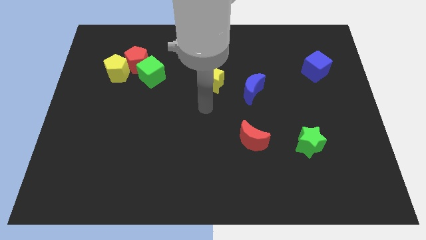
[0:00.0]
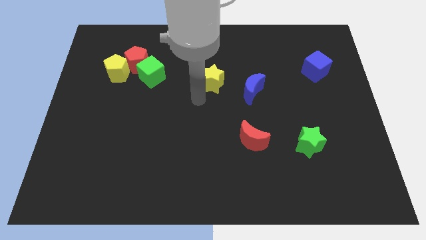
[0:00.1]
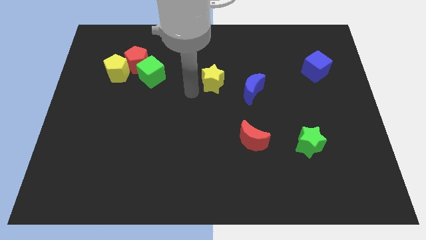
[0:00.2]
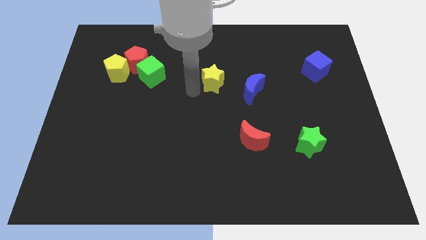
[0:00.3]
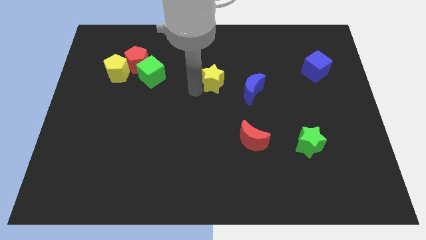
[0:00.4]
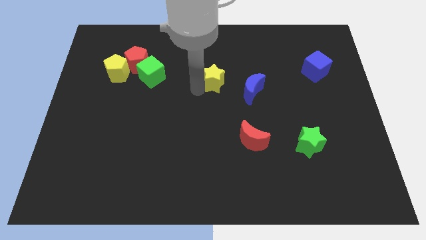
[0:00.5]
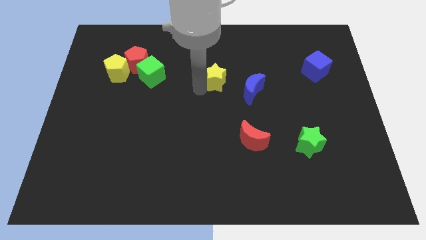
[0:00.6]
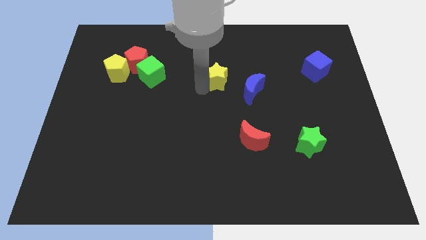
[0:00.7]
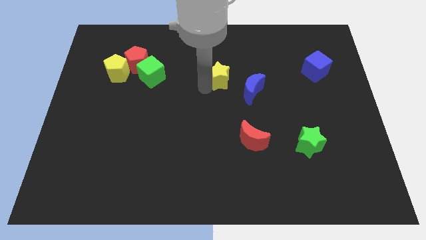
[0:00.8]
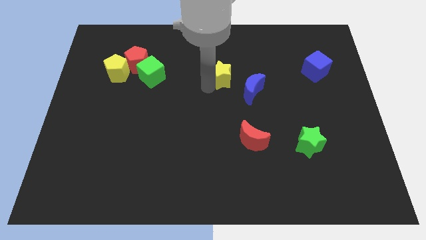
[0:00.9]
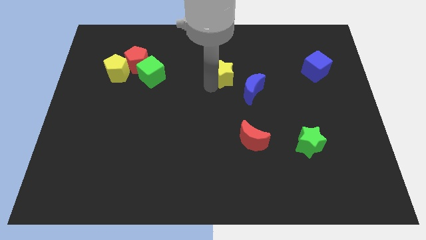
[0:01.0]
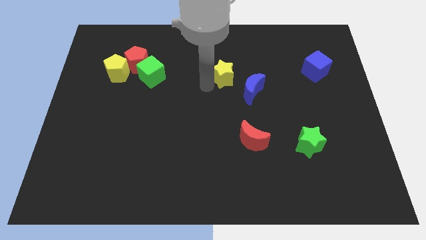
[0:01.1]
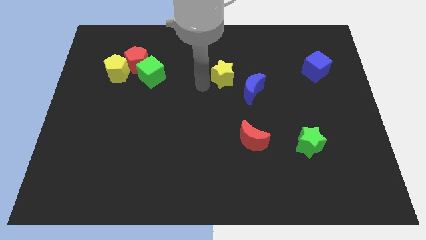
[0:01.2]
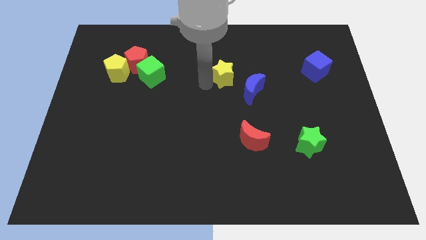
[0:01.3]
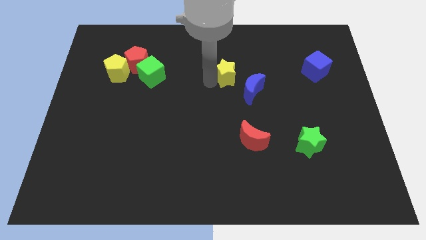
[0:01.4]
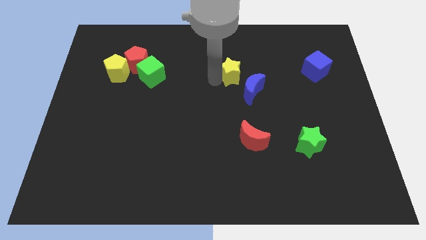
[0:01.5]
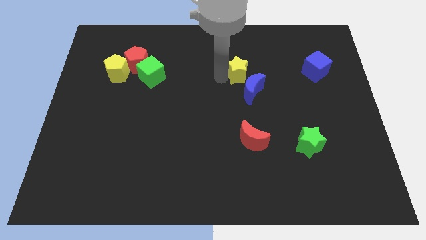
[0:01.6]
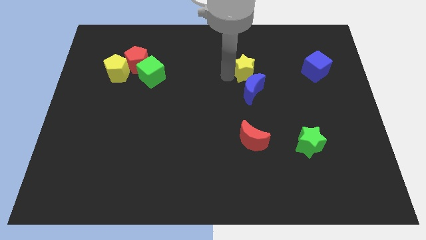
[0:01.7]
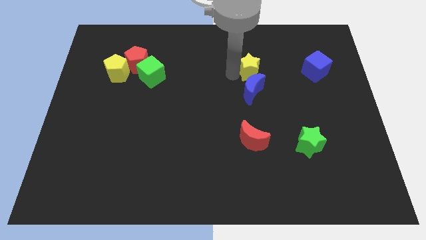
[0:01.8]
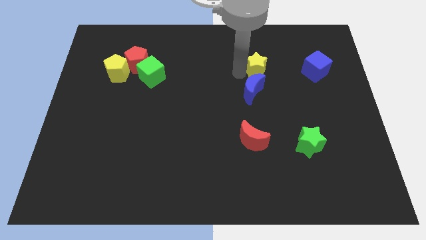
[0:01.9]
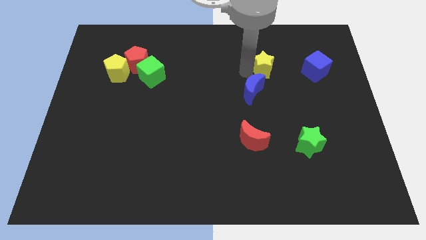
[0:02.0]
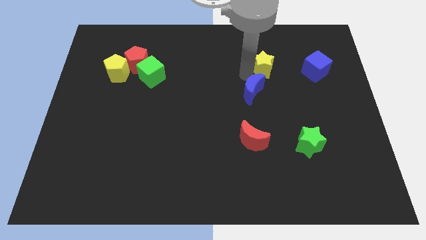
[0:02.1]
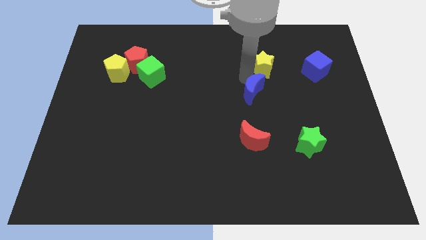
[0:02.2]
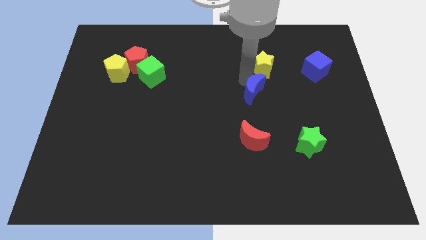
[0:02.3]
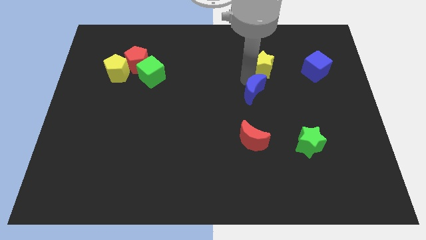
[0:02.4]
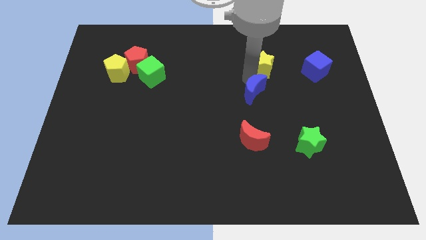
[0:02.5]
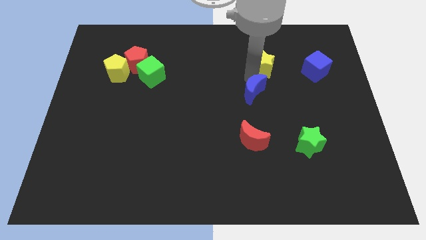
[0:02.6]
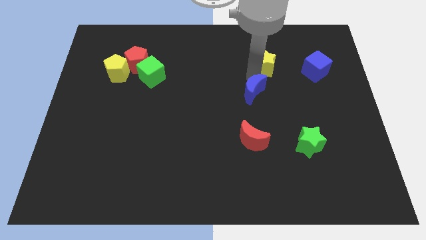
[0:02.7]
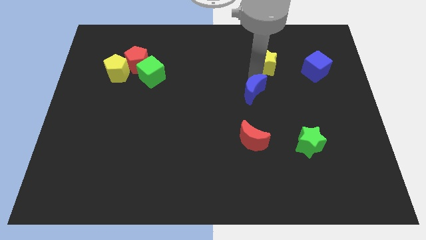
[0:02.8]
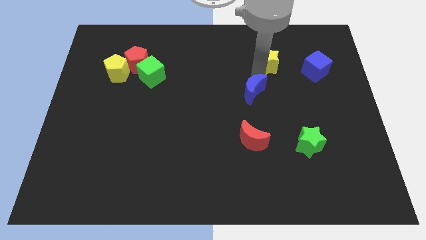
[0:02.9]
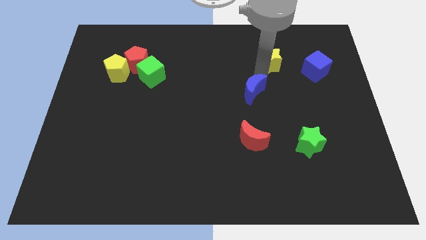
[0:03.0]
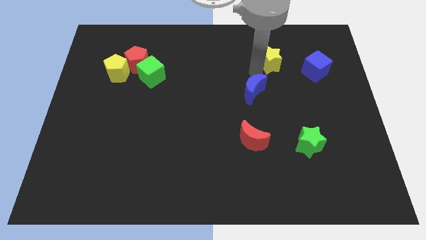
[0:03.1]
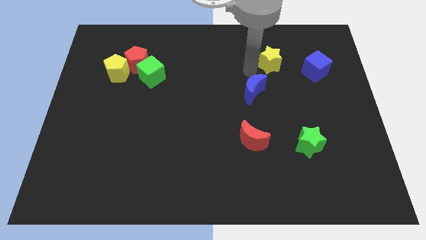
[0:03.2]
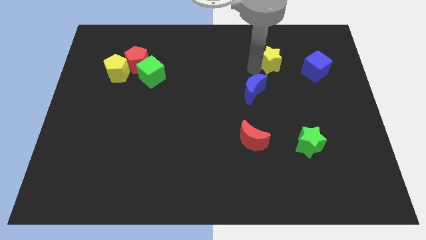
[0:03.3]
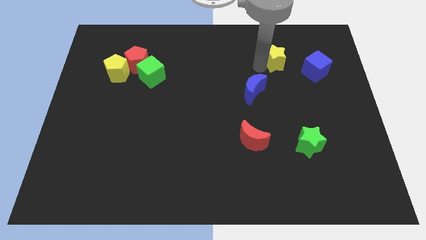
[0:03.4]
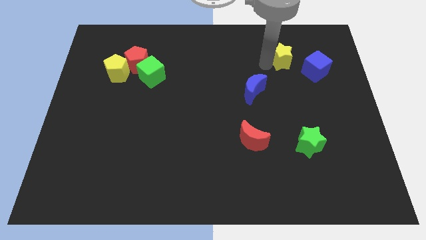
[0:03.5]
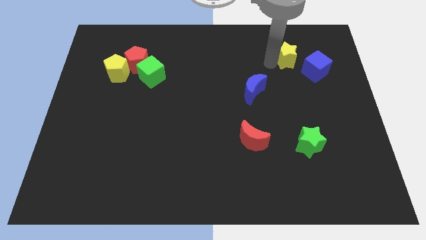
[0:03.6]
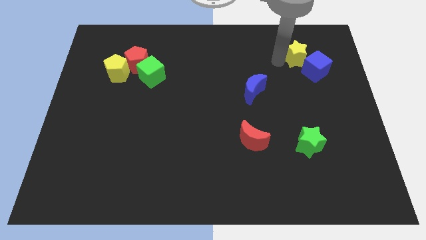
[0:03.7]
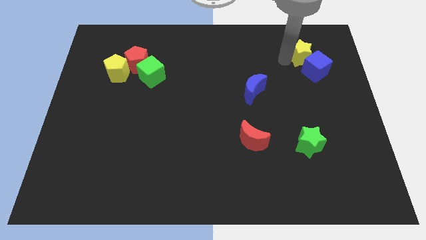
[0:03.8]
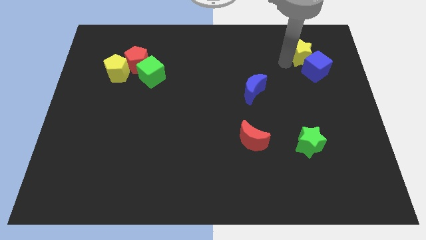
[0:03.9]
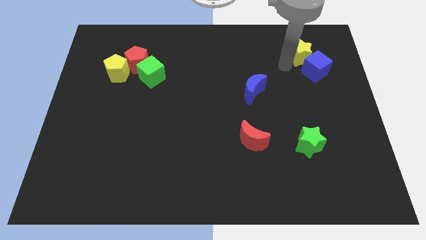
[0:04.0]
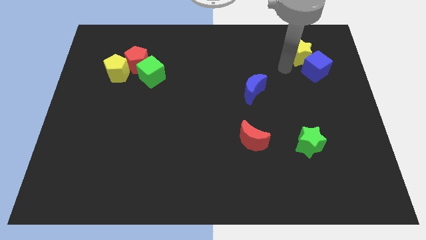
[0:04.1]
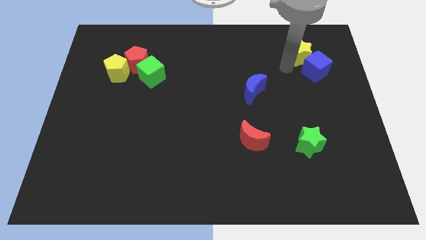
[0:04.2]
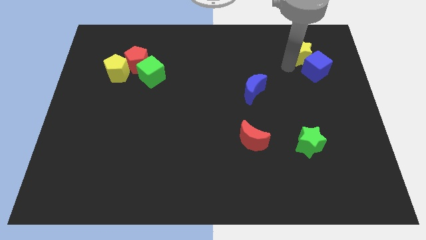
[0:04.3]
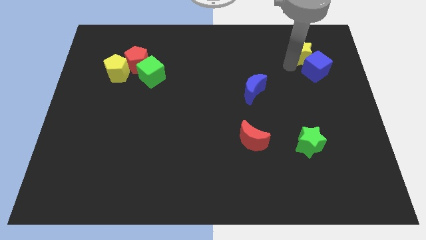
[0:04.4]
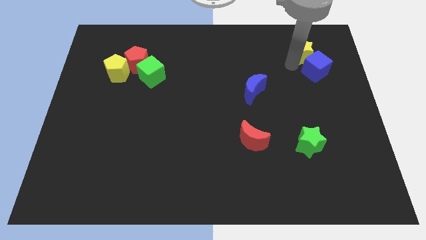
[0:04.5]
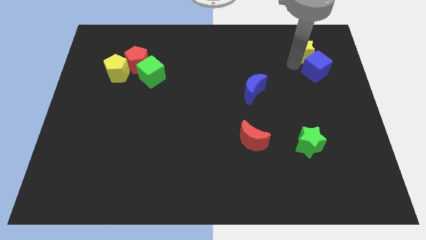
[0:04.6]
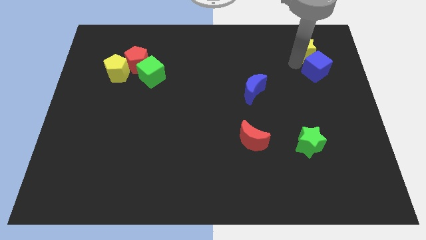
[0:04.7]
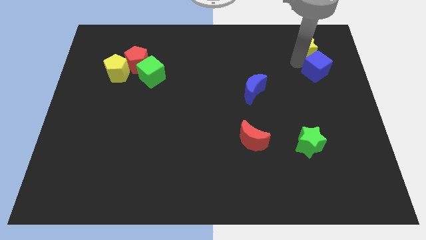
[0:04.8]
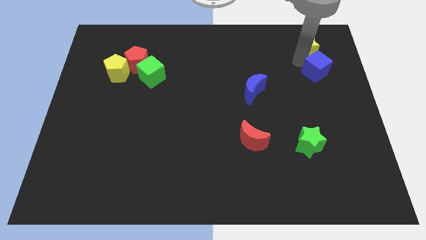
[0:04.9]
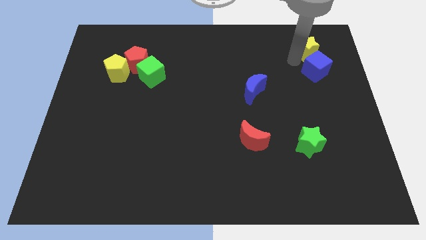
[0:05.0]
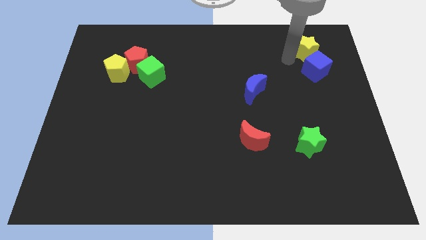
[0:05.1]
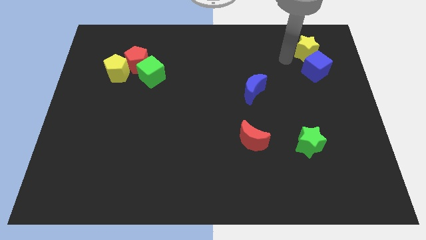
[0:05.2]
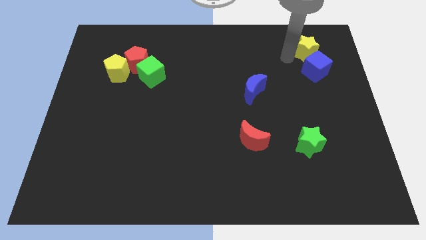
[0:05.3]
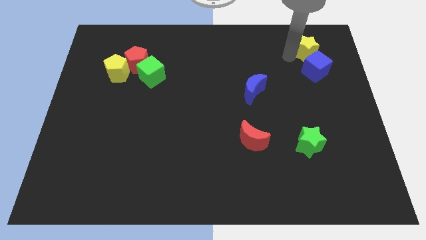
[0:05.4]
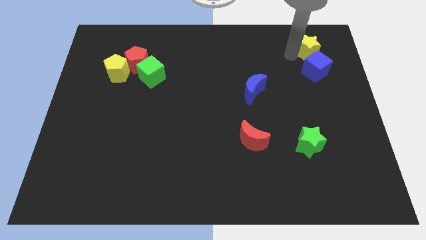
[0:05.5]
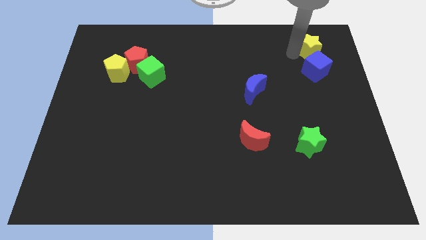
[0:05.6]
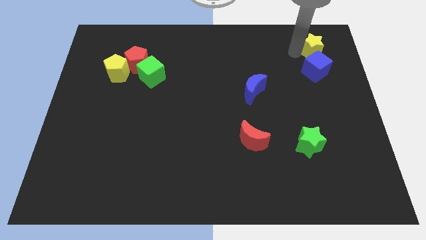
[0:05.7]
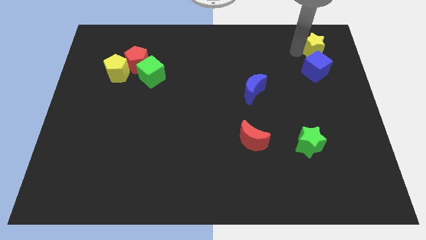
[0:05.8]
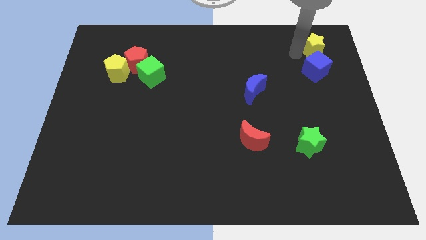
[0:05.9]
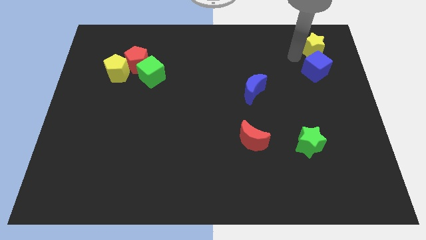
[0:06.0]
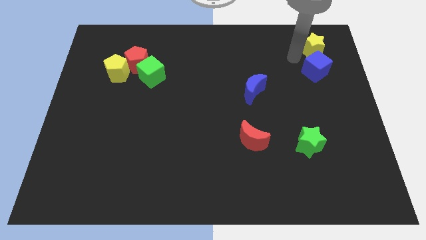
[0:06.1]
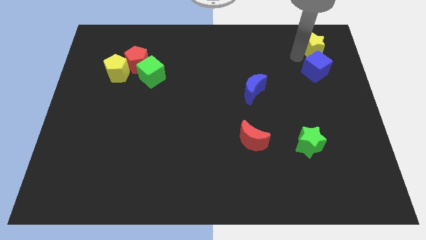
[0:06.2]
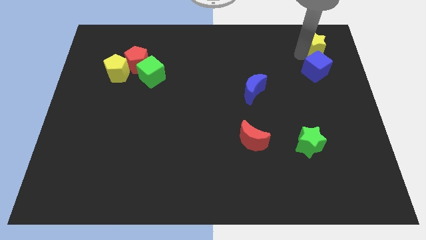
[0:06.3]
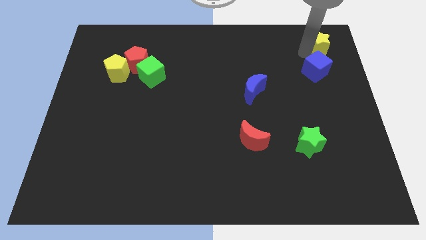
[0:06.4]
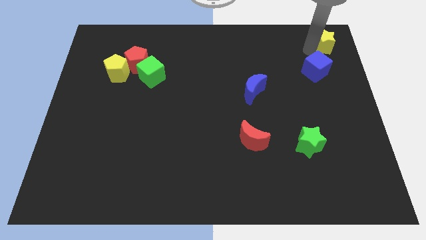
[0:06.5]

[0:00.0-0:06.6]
move the yellow star to the top right of the board
